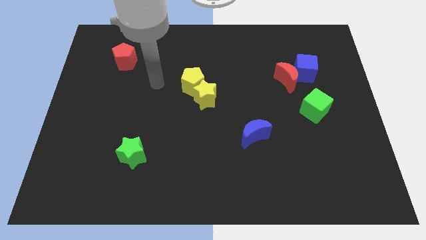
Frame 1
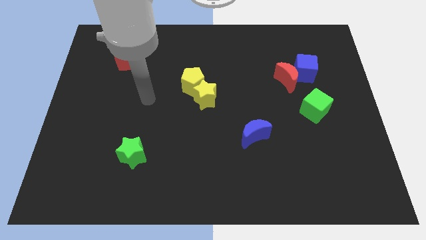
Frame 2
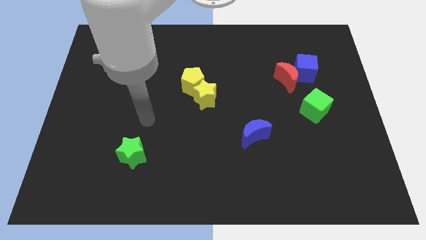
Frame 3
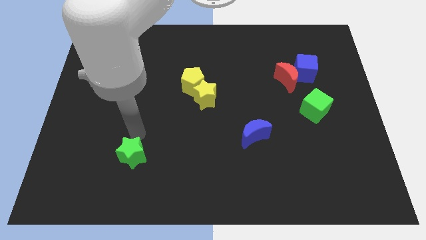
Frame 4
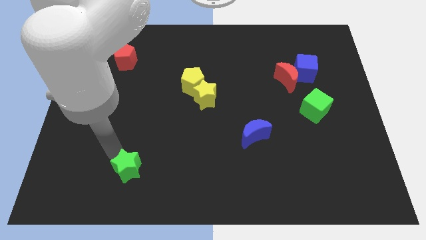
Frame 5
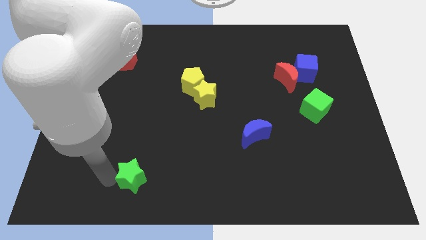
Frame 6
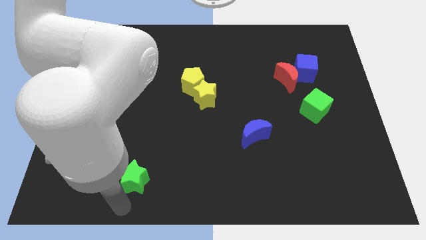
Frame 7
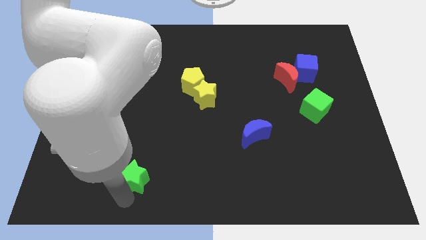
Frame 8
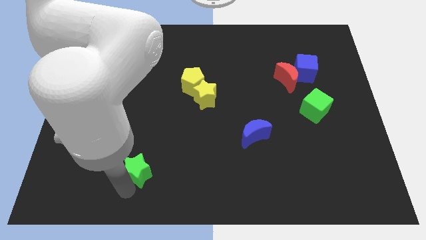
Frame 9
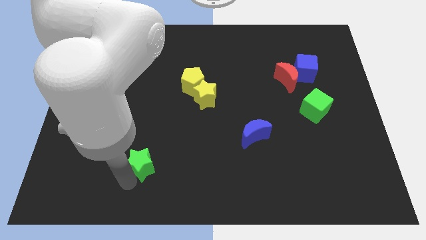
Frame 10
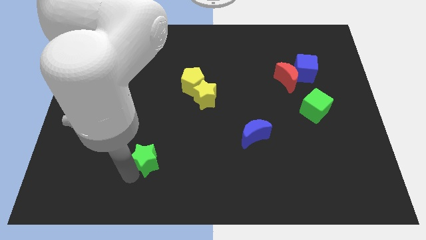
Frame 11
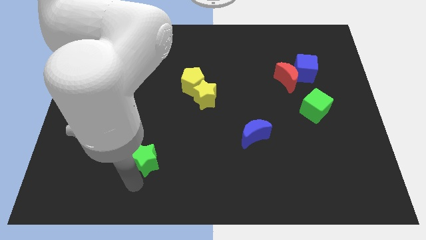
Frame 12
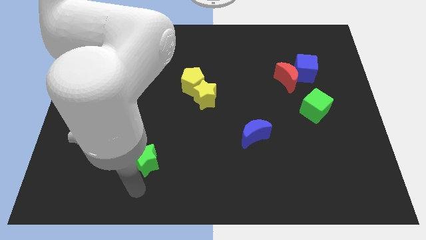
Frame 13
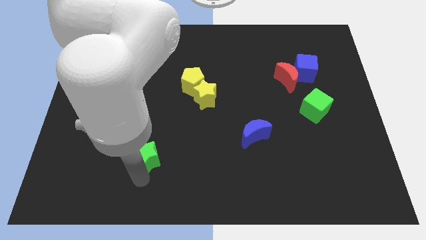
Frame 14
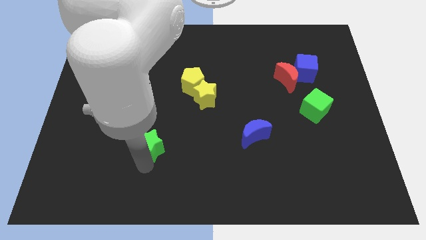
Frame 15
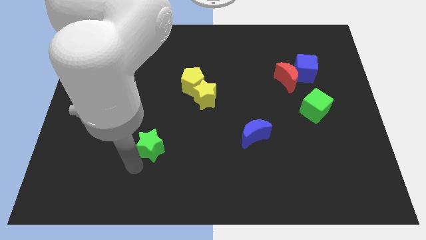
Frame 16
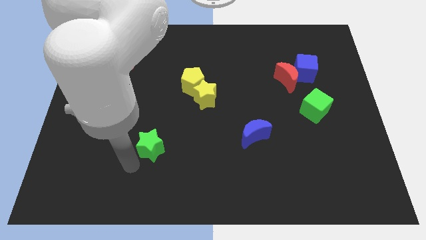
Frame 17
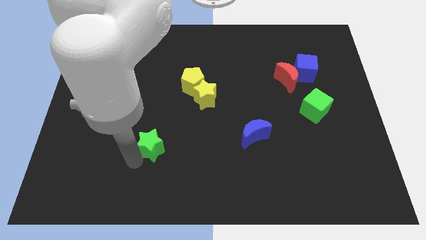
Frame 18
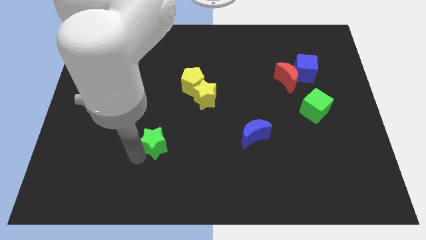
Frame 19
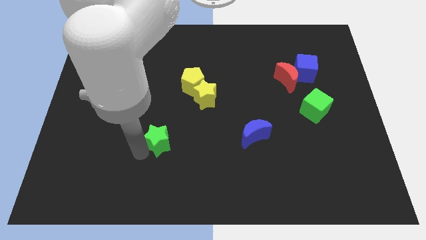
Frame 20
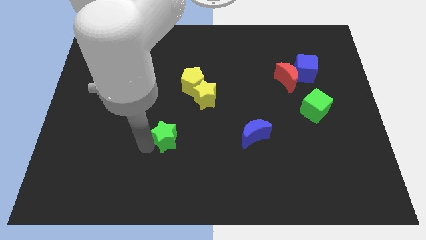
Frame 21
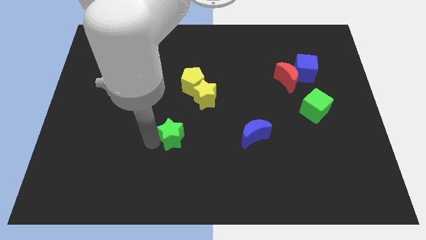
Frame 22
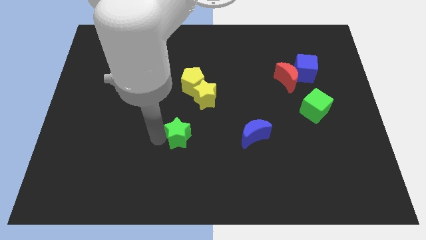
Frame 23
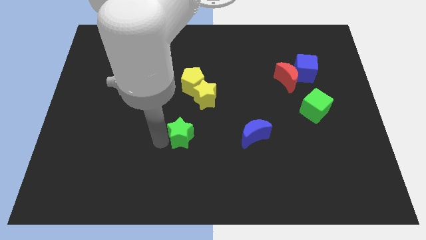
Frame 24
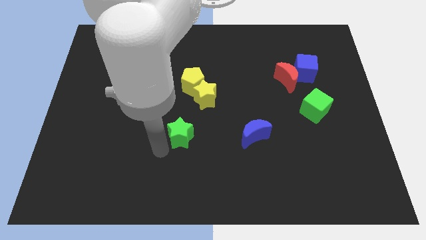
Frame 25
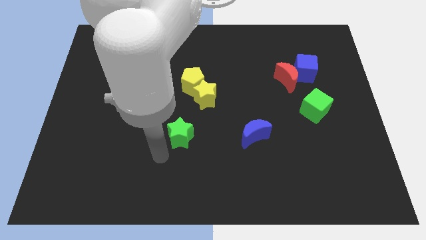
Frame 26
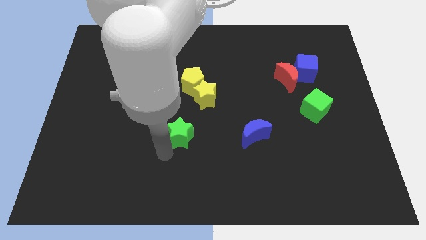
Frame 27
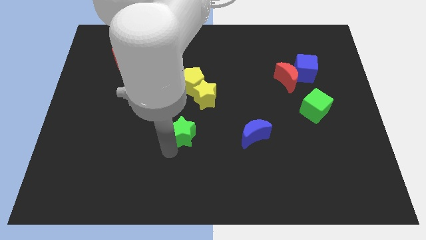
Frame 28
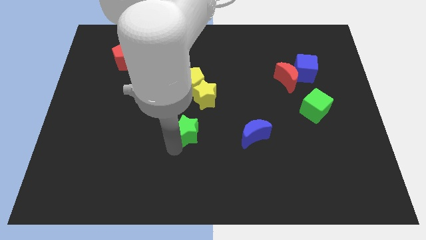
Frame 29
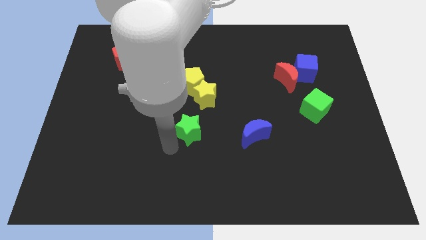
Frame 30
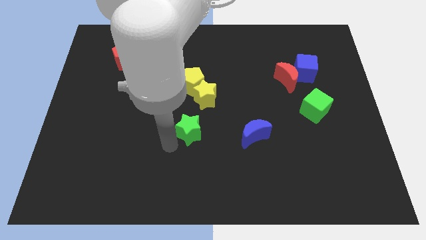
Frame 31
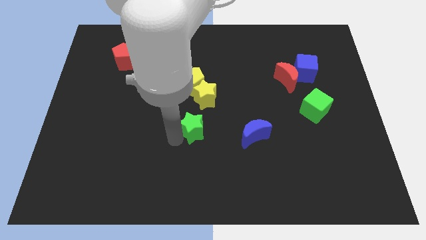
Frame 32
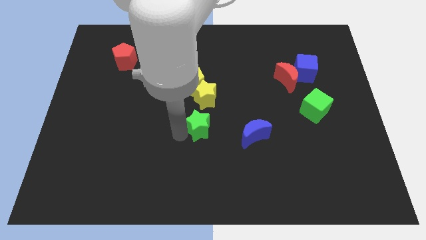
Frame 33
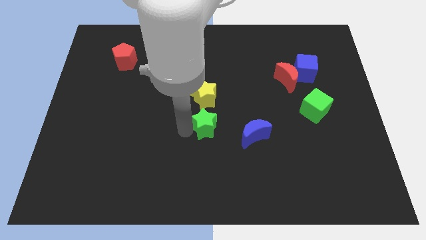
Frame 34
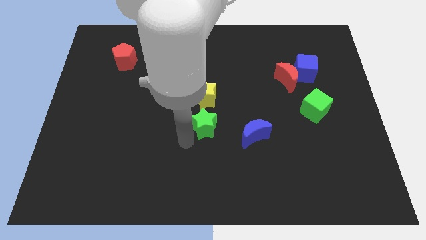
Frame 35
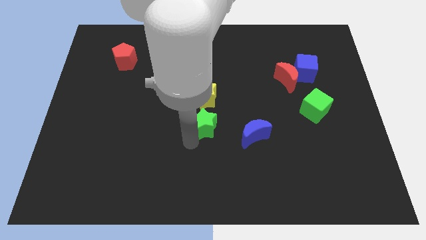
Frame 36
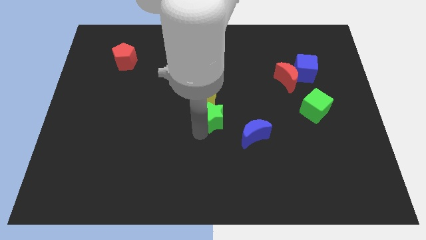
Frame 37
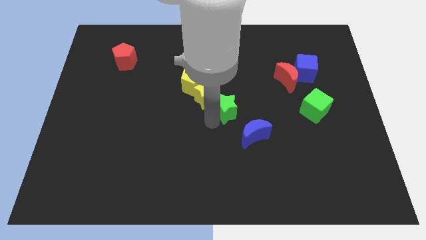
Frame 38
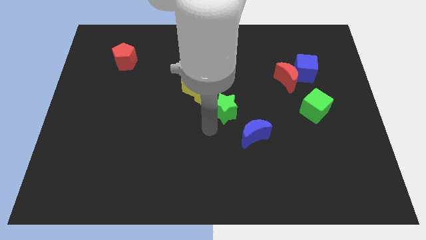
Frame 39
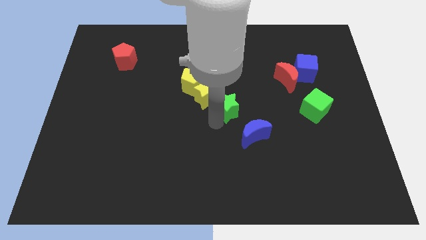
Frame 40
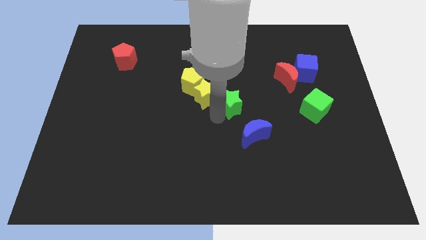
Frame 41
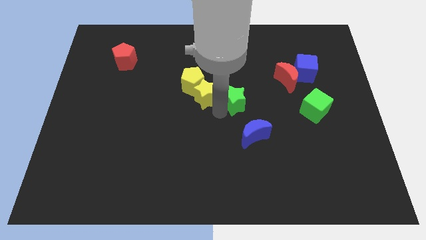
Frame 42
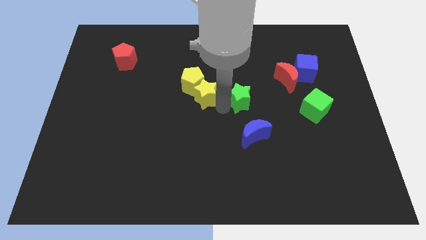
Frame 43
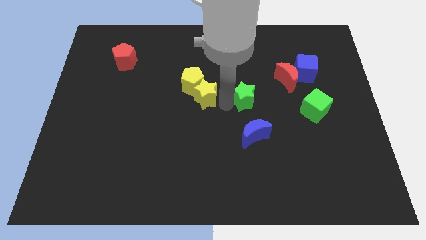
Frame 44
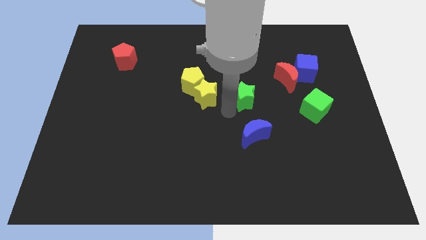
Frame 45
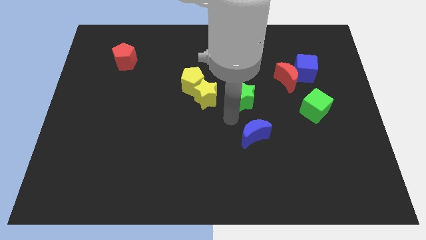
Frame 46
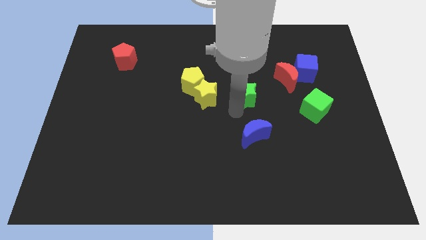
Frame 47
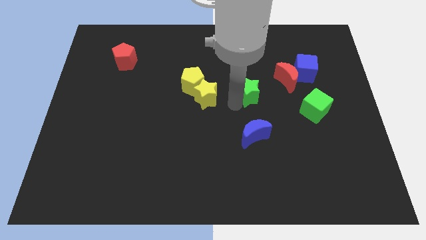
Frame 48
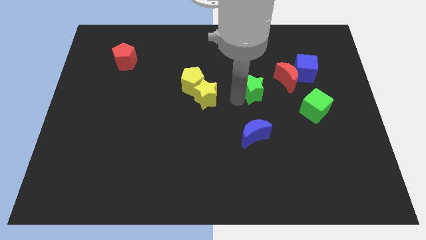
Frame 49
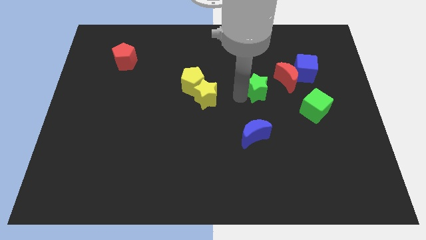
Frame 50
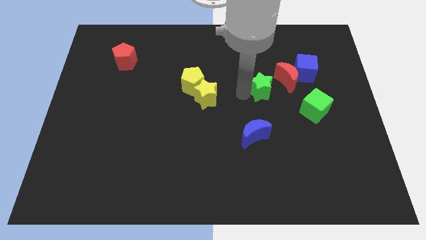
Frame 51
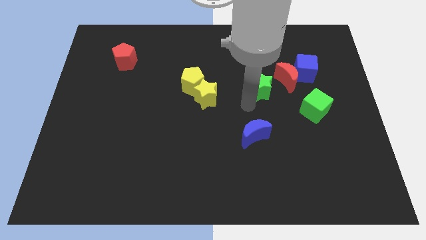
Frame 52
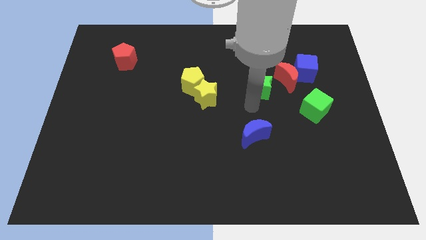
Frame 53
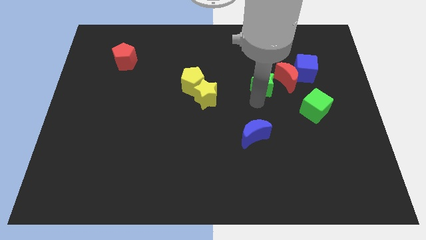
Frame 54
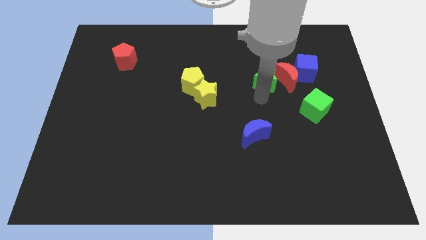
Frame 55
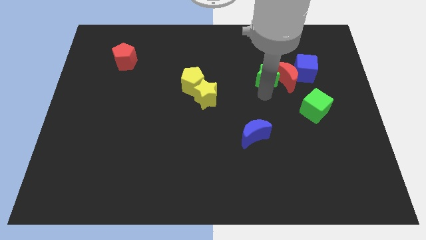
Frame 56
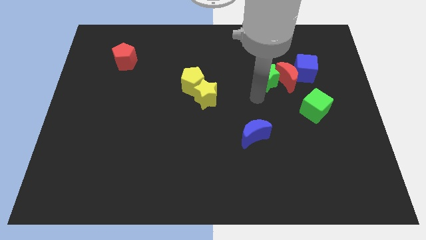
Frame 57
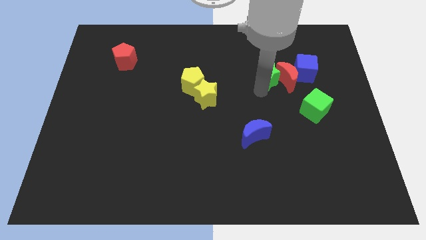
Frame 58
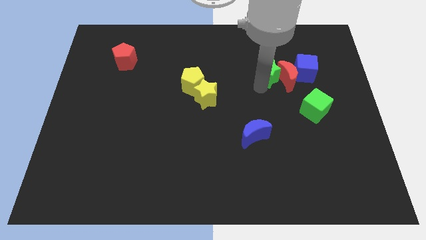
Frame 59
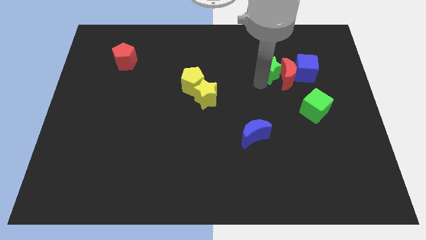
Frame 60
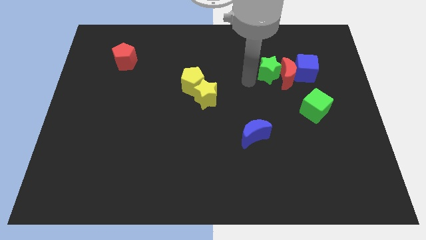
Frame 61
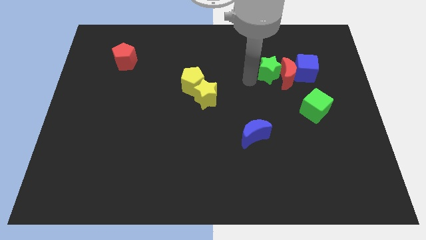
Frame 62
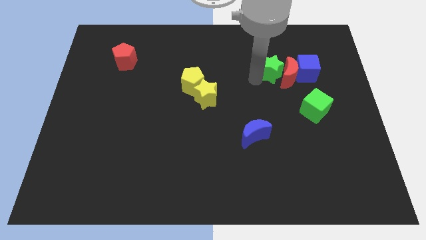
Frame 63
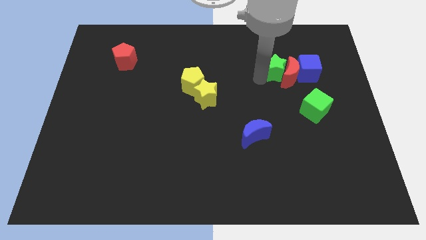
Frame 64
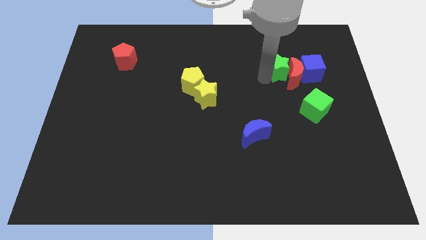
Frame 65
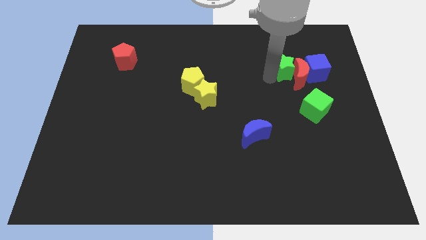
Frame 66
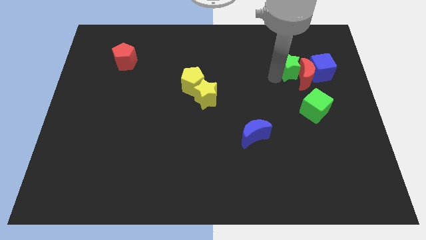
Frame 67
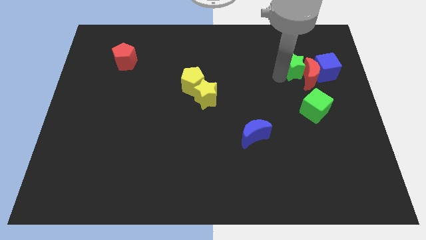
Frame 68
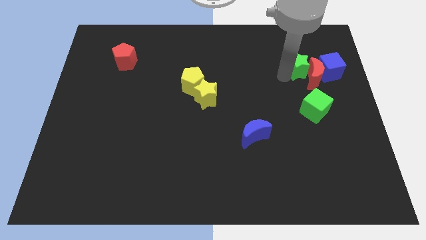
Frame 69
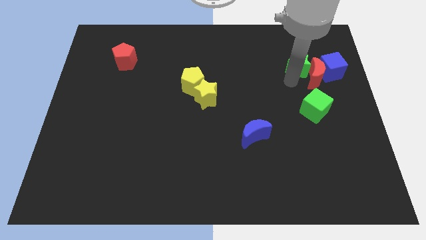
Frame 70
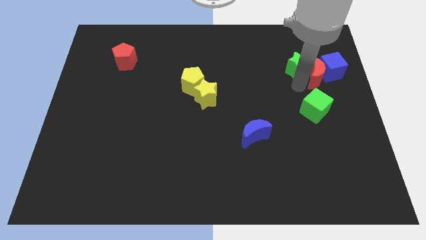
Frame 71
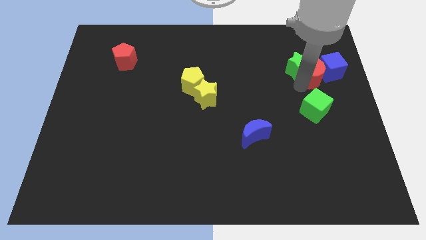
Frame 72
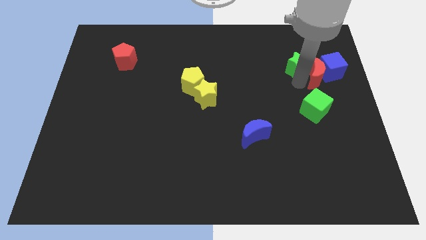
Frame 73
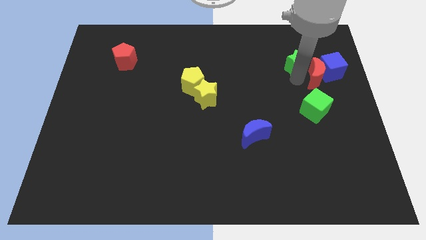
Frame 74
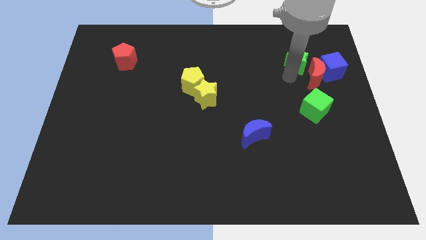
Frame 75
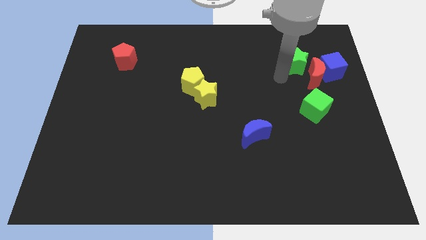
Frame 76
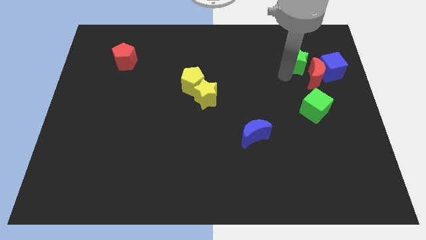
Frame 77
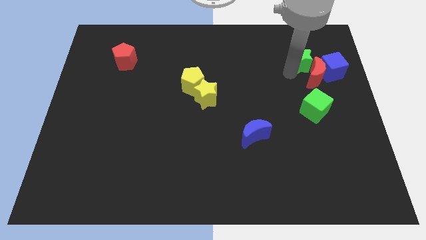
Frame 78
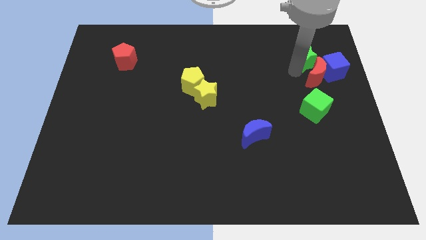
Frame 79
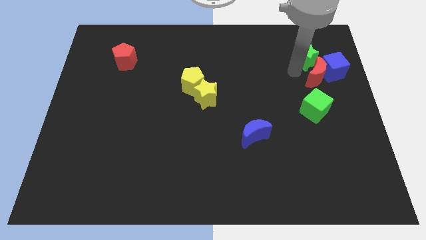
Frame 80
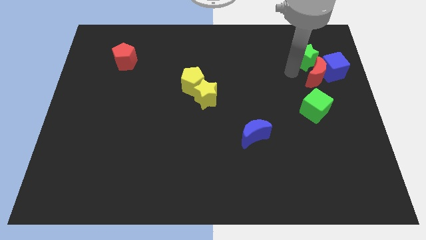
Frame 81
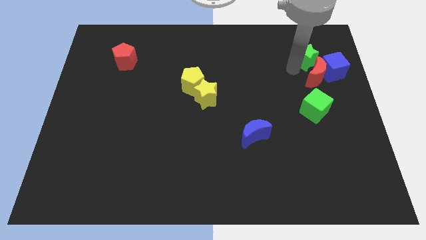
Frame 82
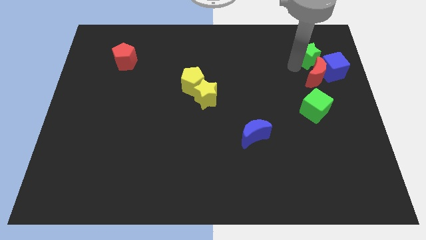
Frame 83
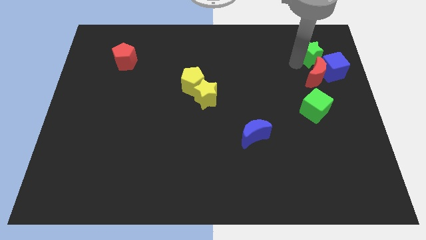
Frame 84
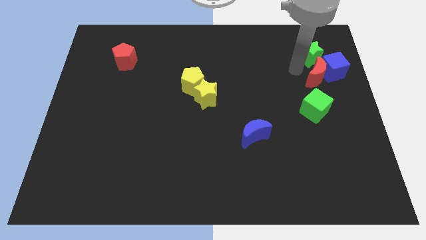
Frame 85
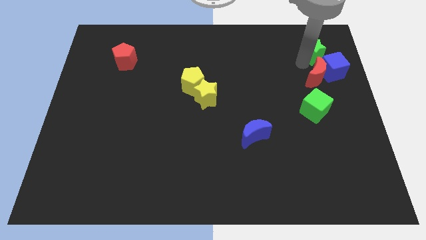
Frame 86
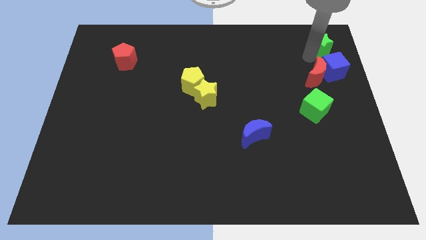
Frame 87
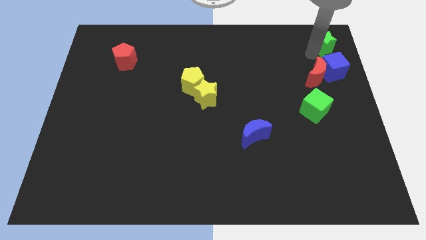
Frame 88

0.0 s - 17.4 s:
move the green star to the upper right corner
